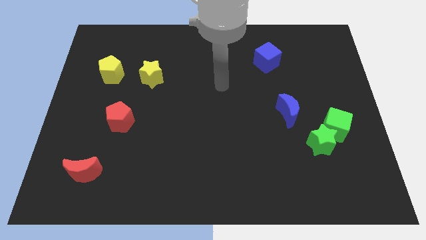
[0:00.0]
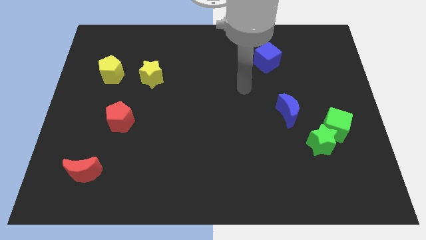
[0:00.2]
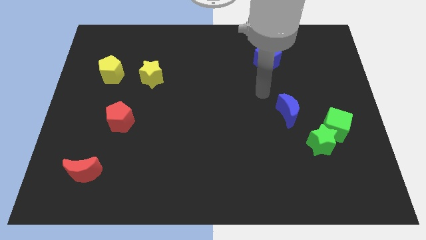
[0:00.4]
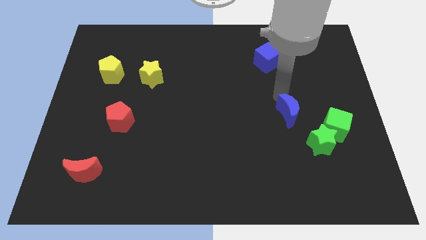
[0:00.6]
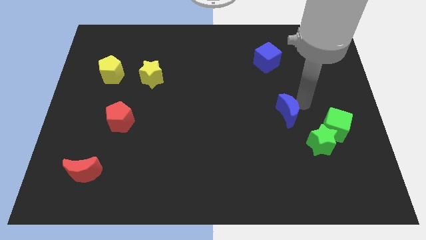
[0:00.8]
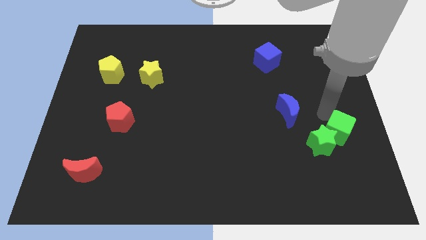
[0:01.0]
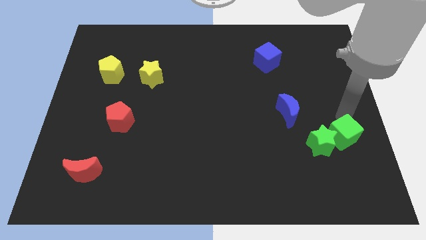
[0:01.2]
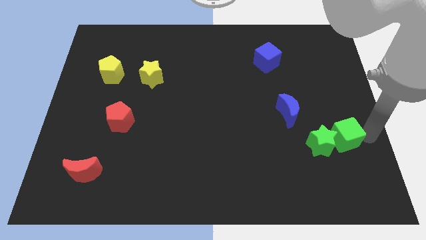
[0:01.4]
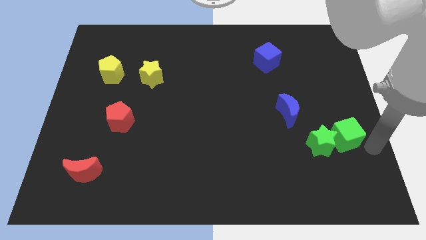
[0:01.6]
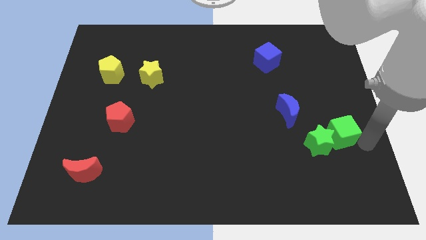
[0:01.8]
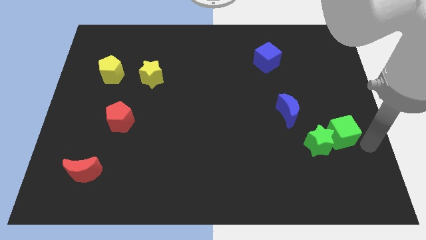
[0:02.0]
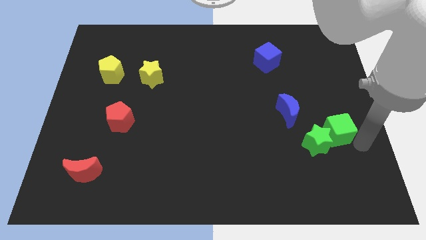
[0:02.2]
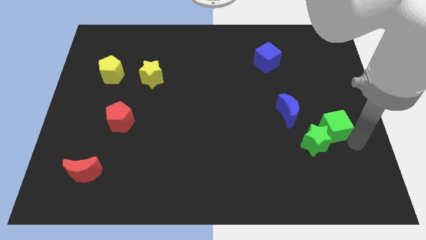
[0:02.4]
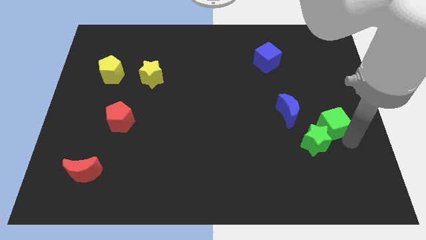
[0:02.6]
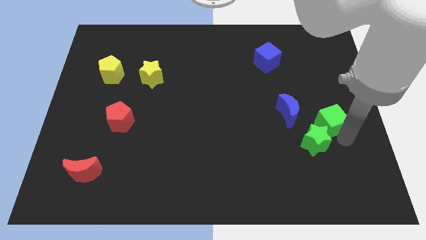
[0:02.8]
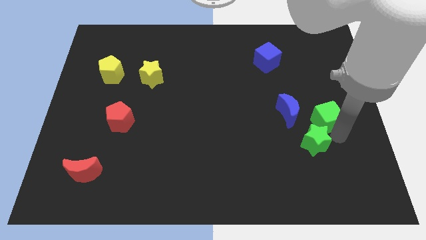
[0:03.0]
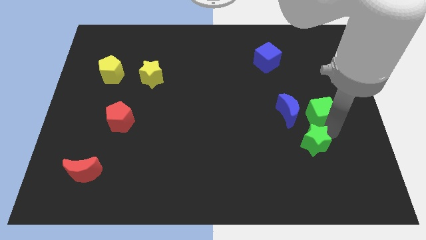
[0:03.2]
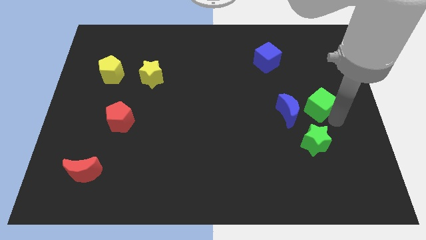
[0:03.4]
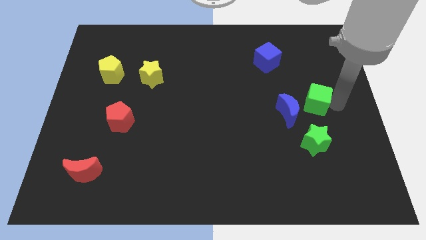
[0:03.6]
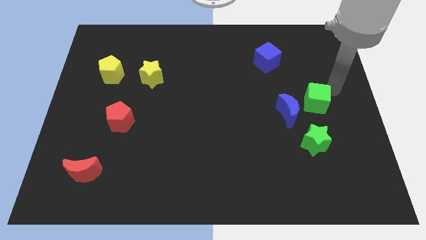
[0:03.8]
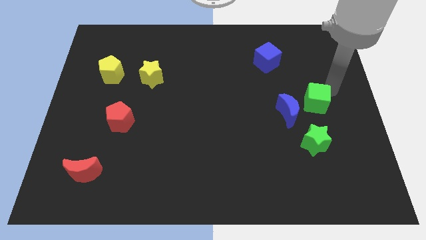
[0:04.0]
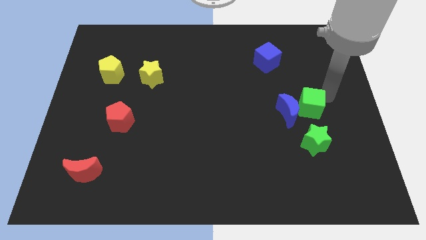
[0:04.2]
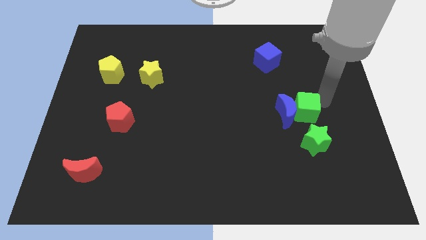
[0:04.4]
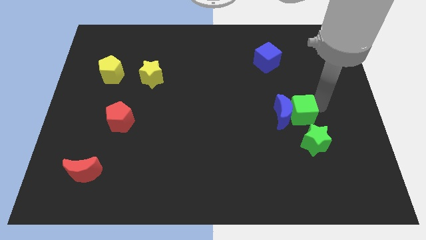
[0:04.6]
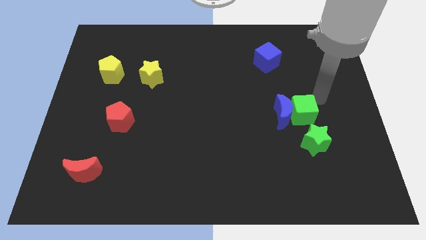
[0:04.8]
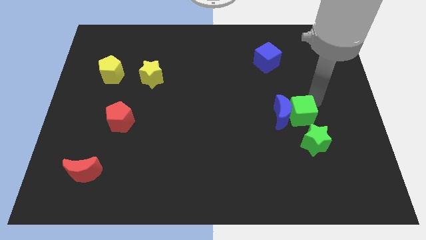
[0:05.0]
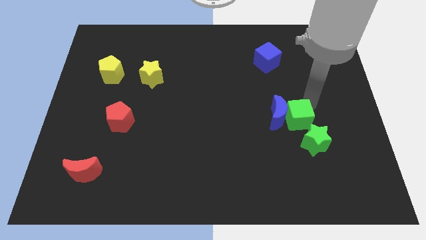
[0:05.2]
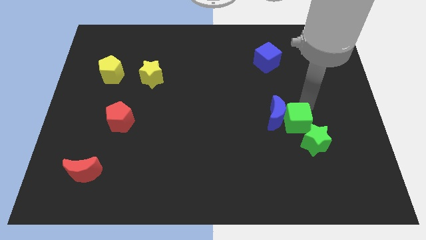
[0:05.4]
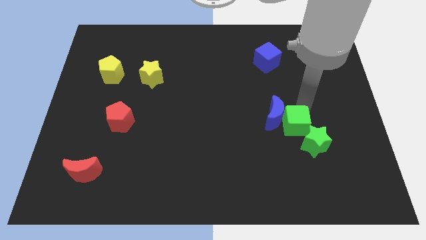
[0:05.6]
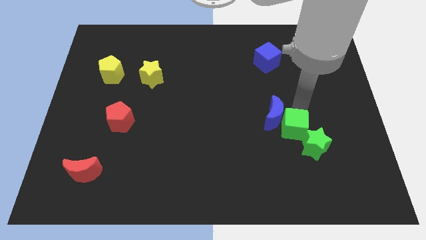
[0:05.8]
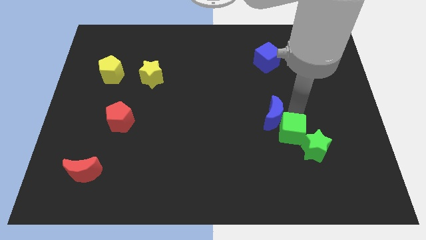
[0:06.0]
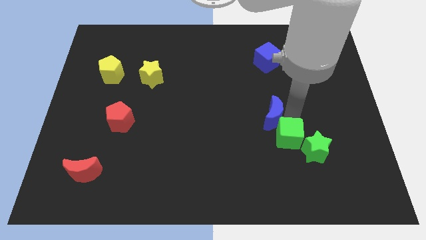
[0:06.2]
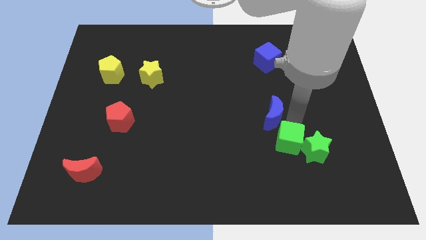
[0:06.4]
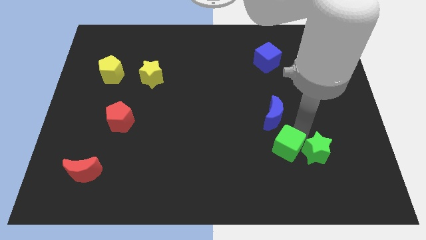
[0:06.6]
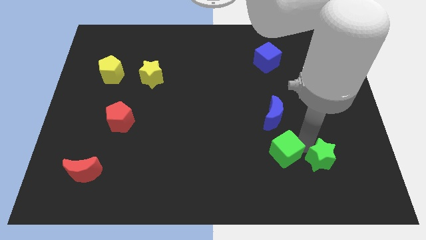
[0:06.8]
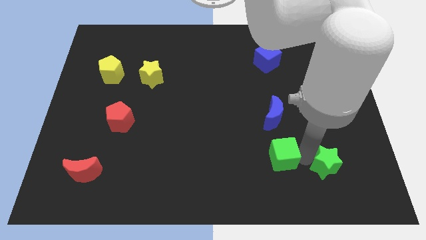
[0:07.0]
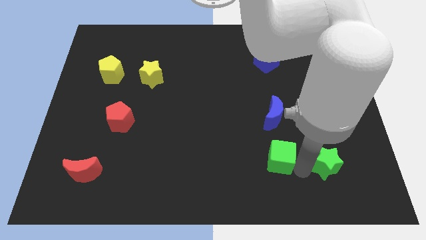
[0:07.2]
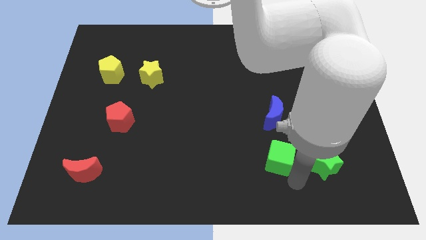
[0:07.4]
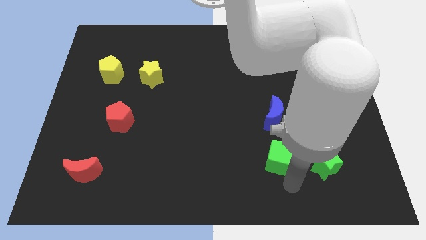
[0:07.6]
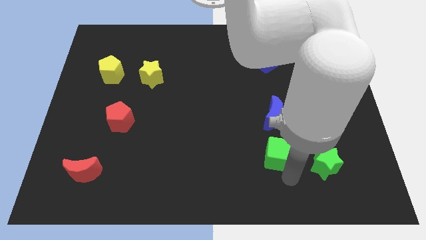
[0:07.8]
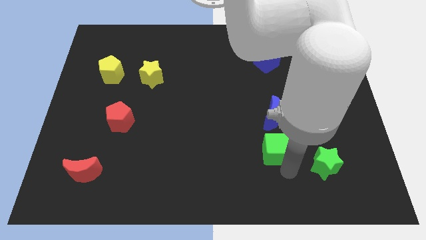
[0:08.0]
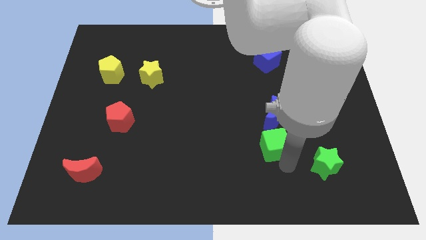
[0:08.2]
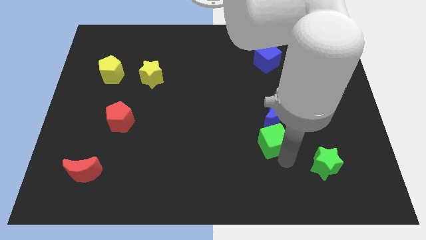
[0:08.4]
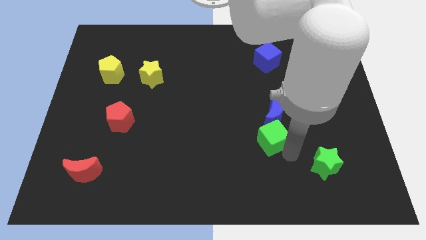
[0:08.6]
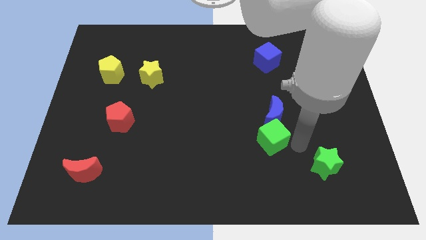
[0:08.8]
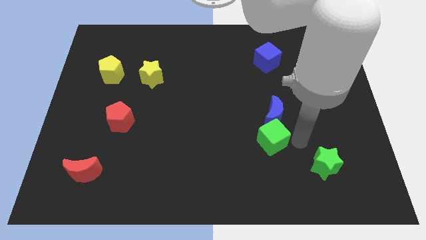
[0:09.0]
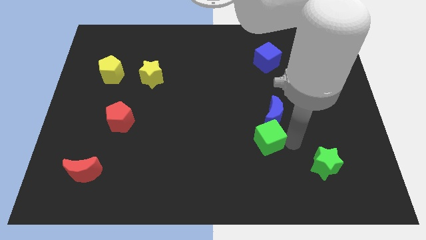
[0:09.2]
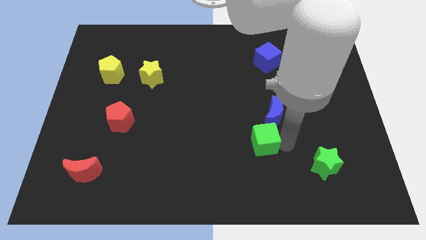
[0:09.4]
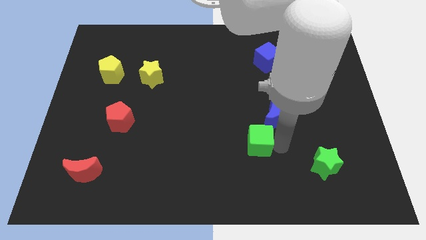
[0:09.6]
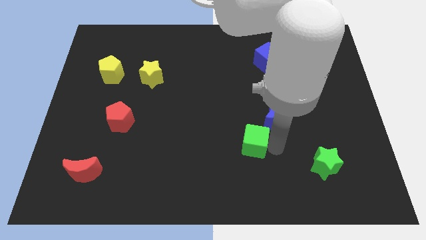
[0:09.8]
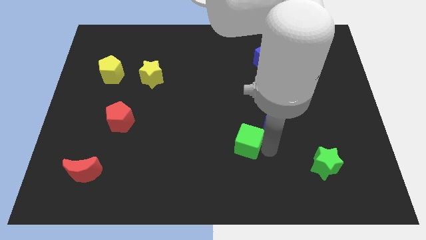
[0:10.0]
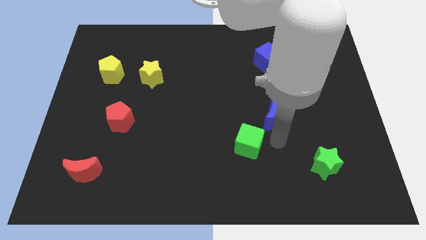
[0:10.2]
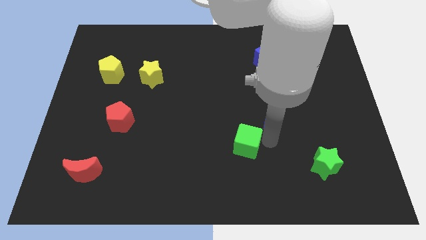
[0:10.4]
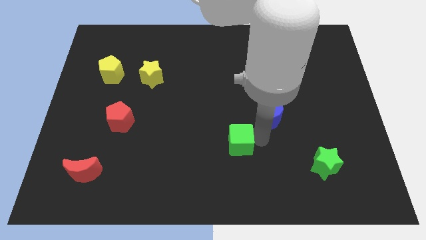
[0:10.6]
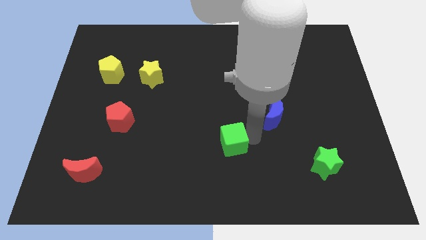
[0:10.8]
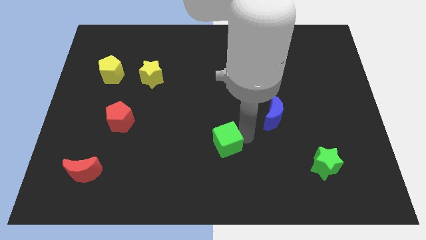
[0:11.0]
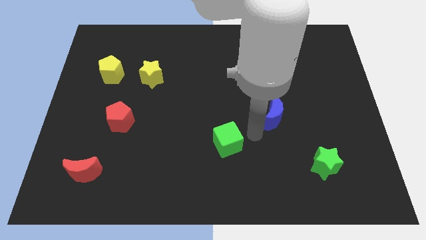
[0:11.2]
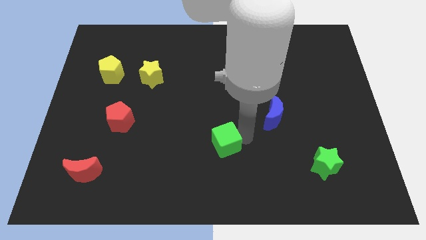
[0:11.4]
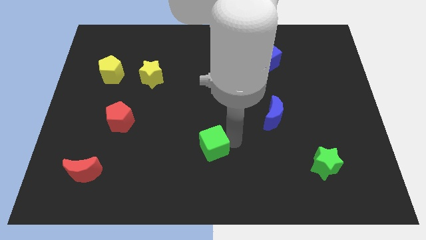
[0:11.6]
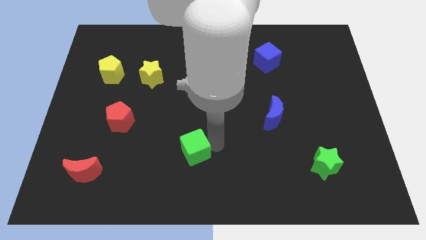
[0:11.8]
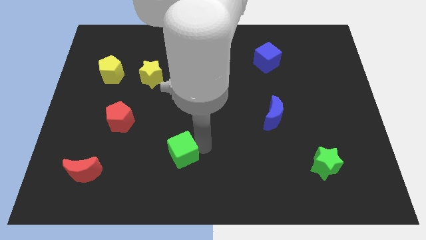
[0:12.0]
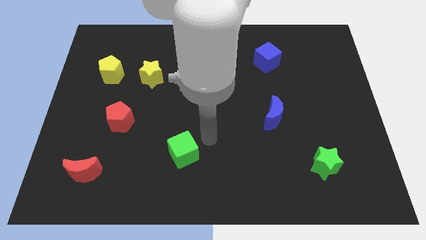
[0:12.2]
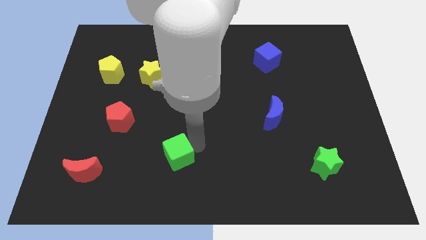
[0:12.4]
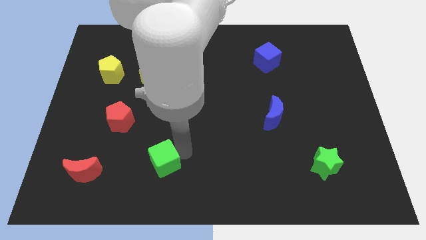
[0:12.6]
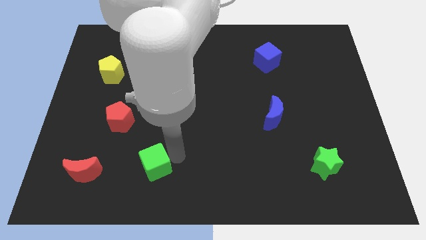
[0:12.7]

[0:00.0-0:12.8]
move the green cube to the right side of the red moon

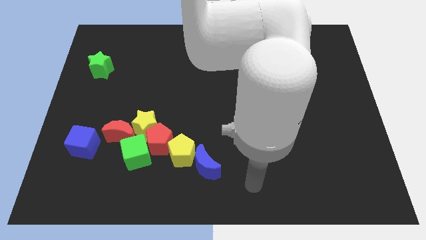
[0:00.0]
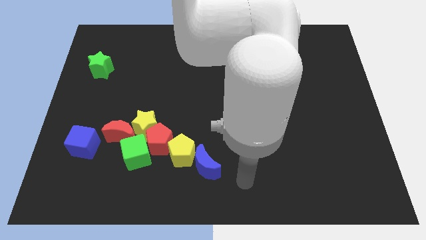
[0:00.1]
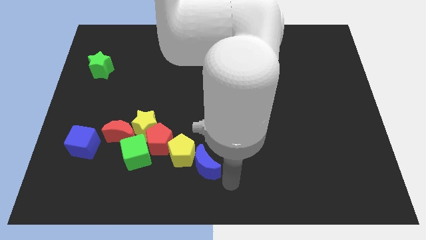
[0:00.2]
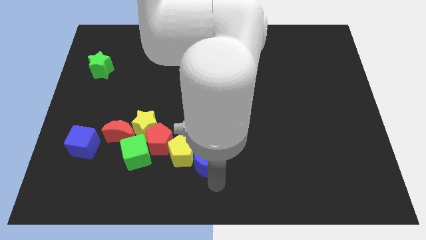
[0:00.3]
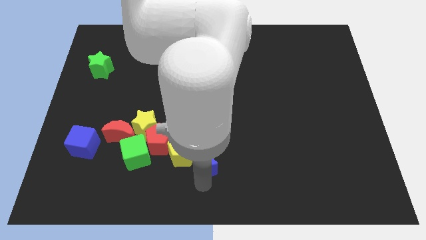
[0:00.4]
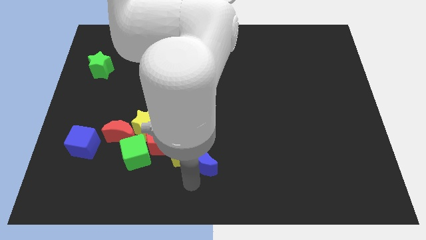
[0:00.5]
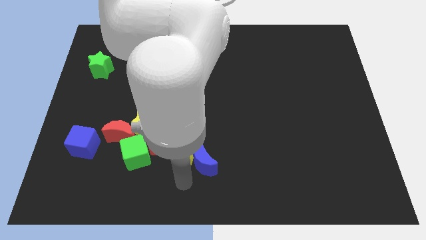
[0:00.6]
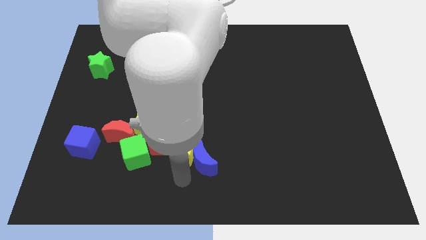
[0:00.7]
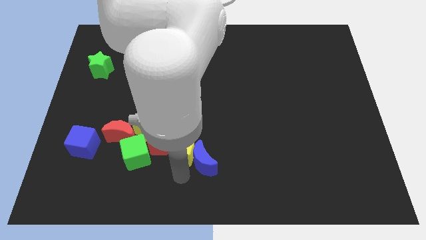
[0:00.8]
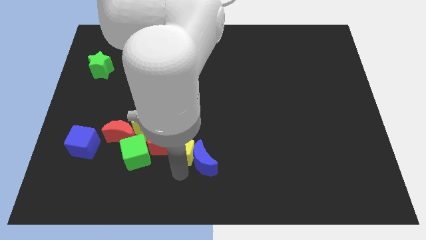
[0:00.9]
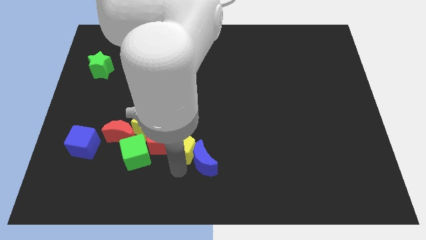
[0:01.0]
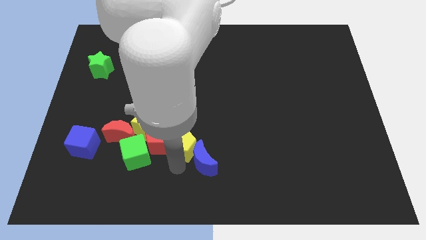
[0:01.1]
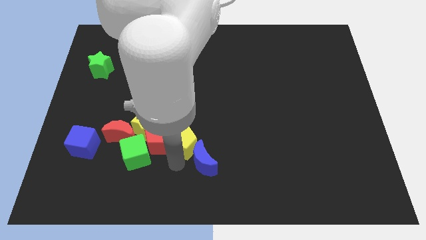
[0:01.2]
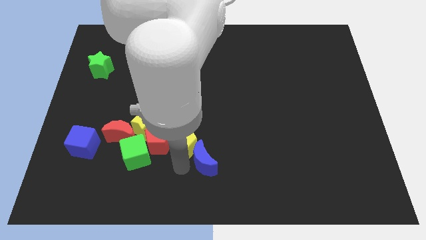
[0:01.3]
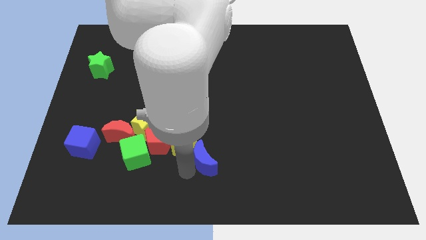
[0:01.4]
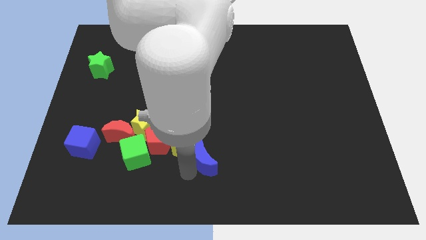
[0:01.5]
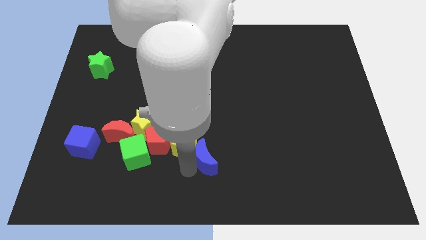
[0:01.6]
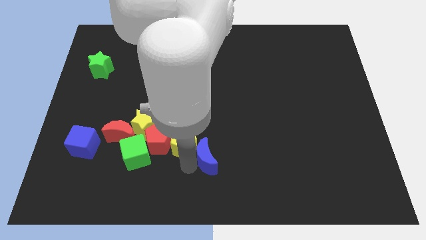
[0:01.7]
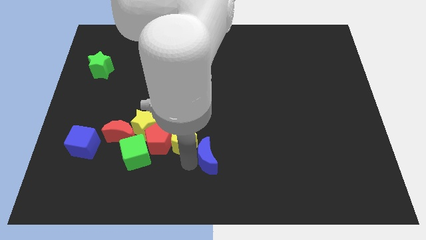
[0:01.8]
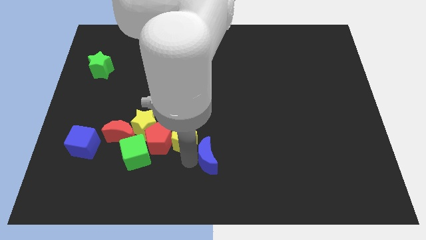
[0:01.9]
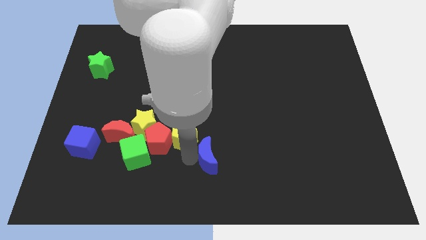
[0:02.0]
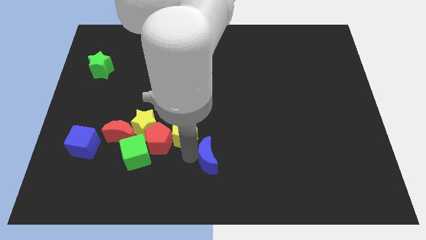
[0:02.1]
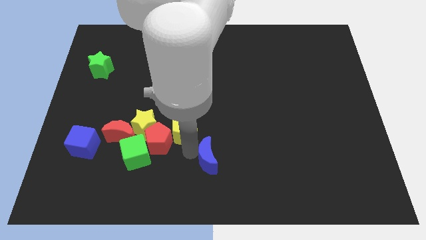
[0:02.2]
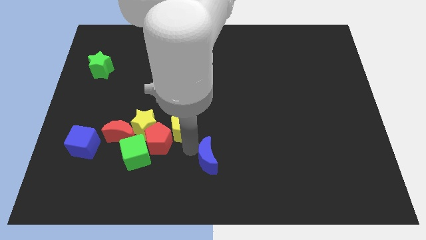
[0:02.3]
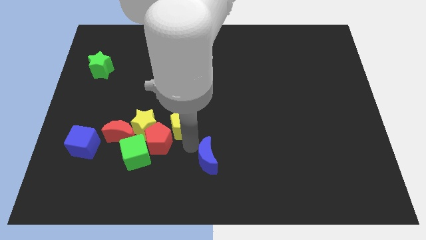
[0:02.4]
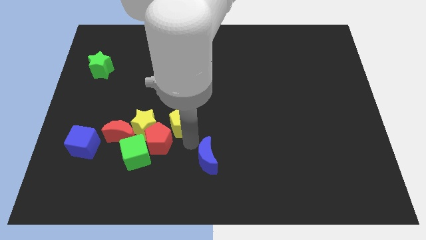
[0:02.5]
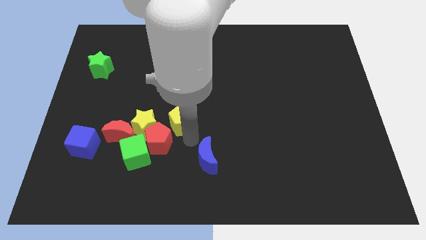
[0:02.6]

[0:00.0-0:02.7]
move the yellow pentagon to the top right side of the yellow star
